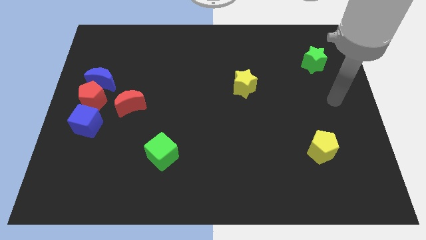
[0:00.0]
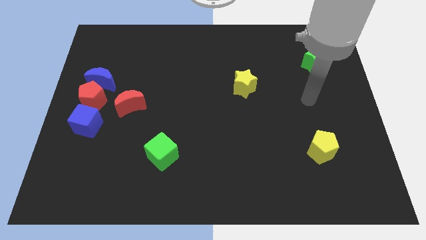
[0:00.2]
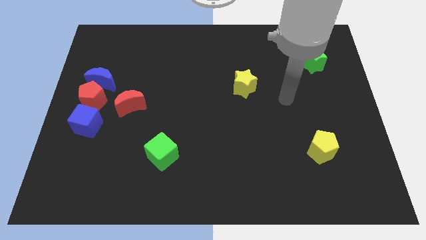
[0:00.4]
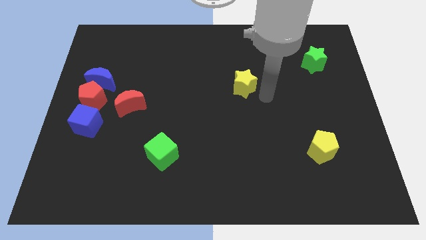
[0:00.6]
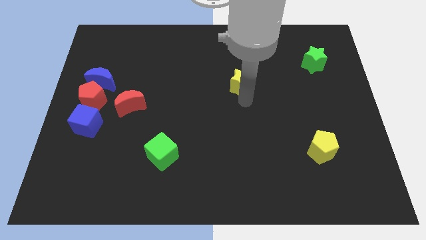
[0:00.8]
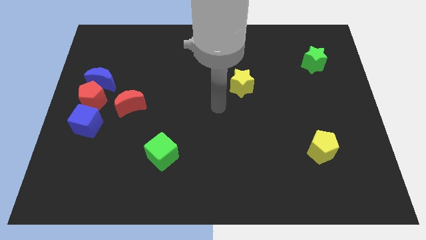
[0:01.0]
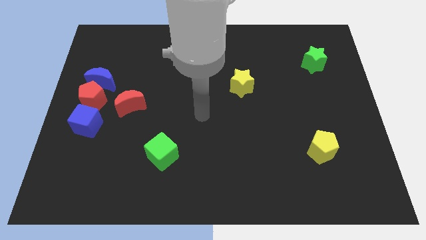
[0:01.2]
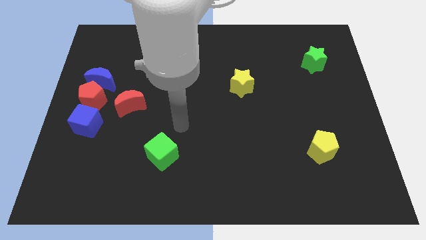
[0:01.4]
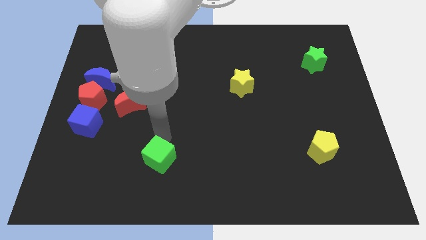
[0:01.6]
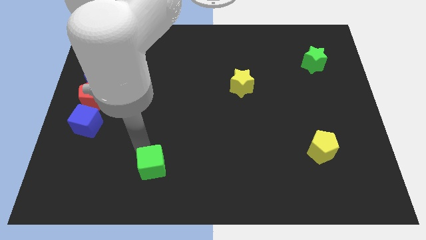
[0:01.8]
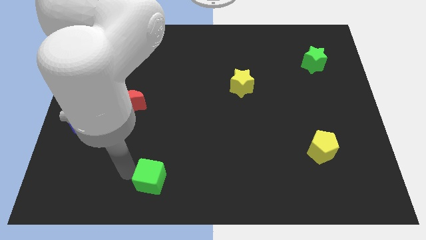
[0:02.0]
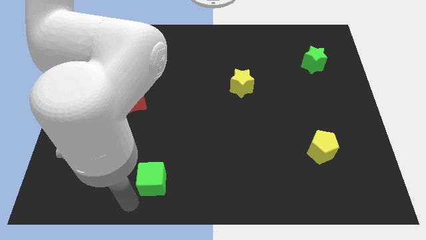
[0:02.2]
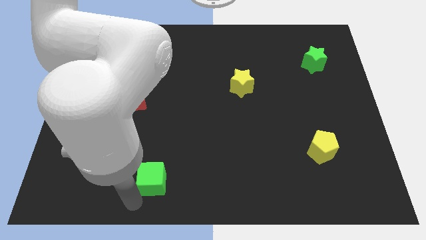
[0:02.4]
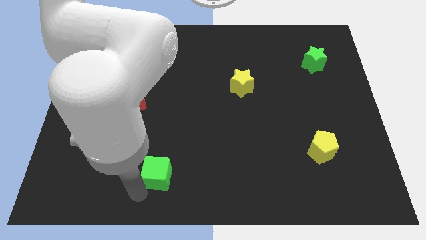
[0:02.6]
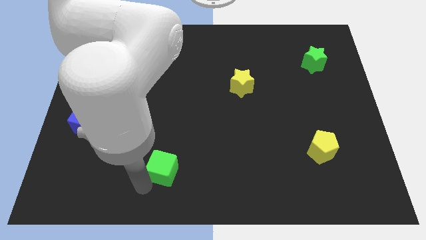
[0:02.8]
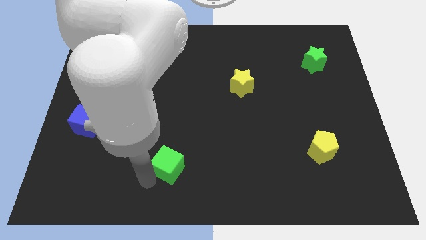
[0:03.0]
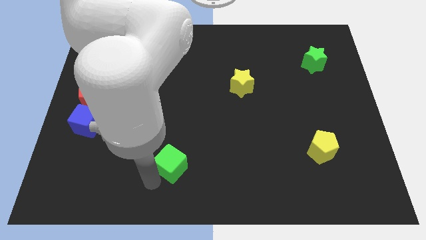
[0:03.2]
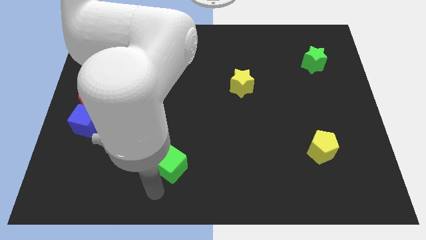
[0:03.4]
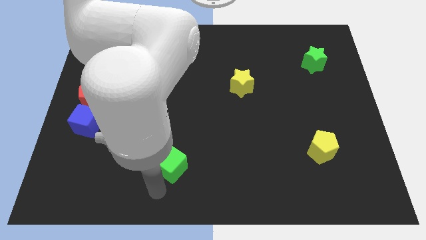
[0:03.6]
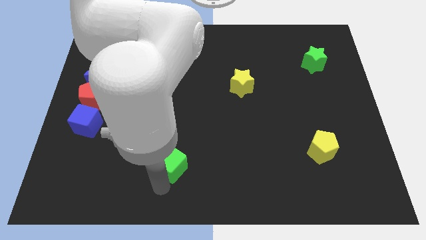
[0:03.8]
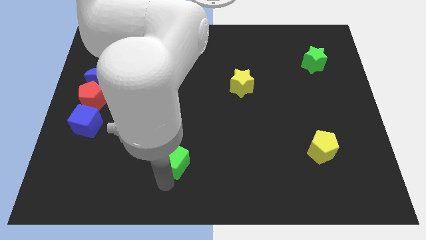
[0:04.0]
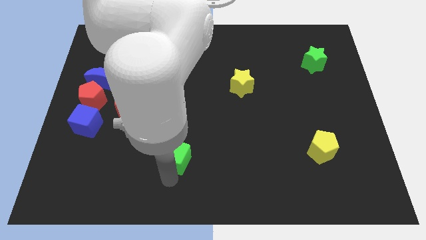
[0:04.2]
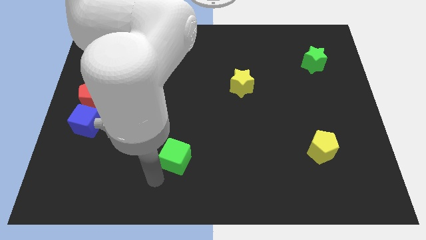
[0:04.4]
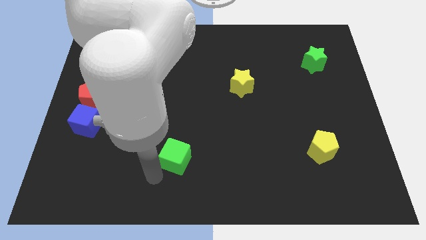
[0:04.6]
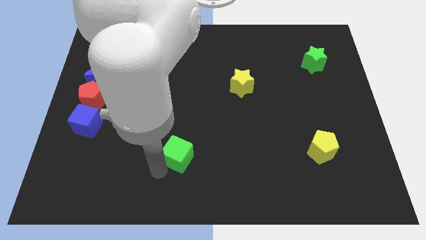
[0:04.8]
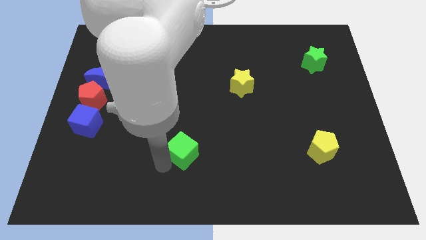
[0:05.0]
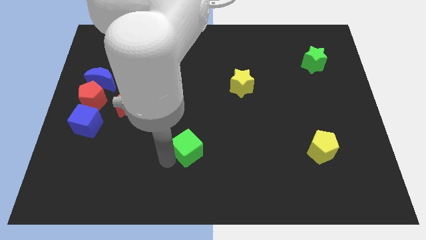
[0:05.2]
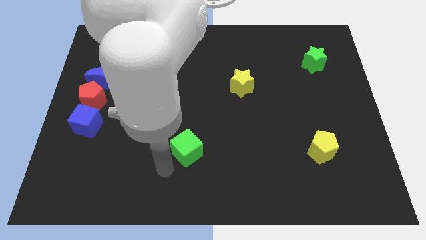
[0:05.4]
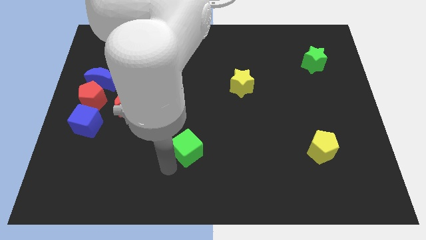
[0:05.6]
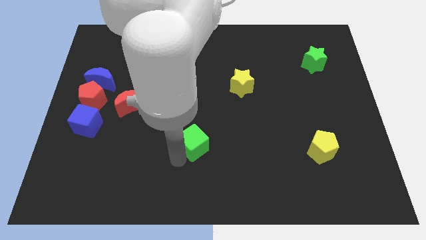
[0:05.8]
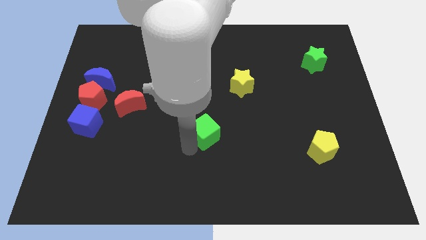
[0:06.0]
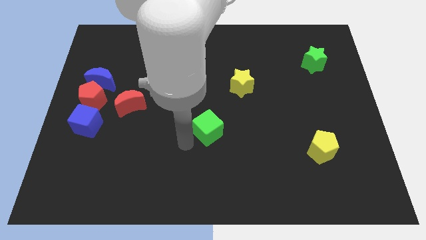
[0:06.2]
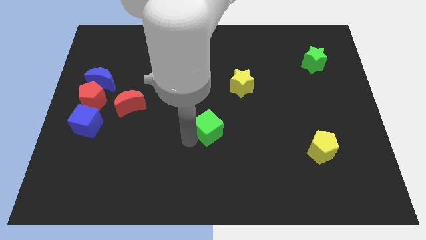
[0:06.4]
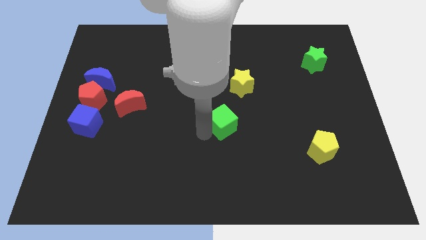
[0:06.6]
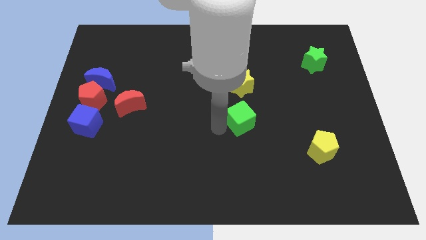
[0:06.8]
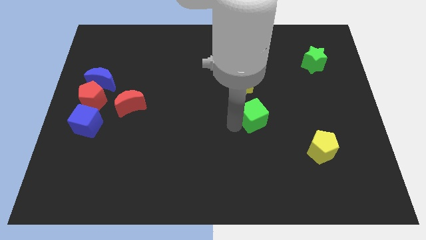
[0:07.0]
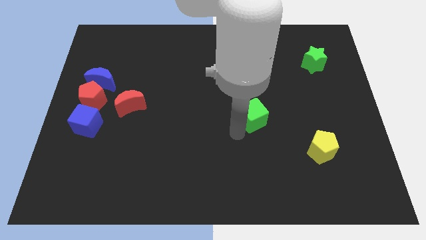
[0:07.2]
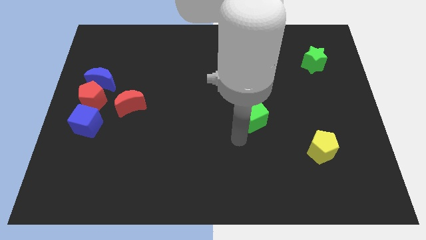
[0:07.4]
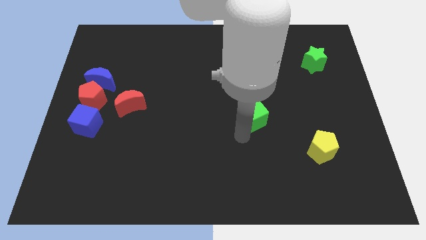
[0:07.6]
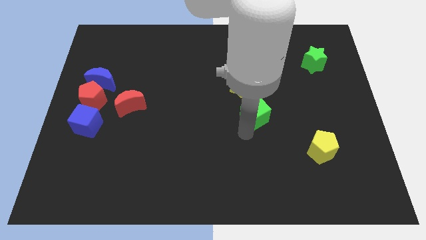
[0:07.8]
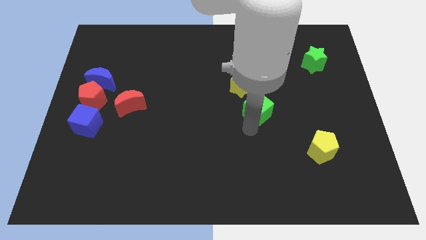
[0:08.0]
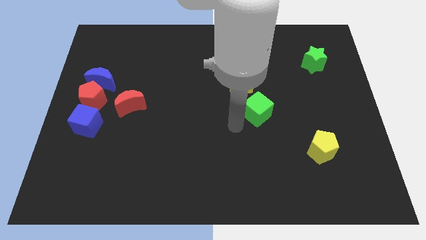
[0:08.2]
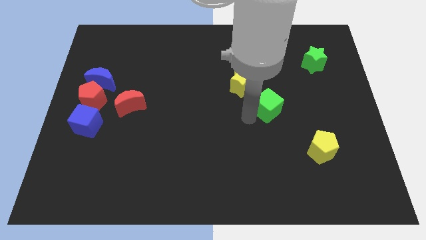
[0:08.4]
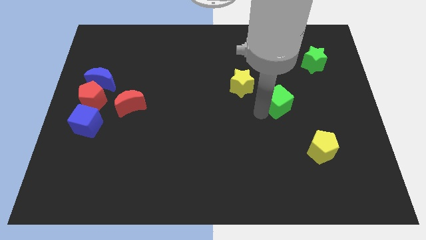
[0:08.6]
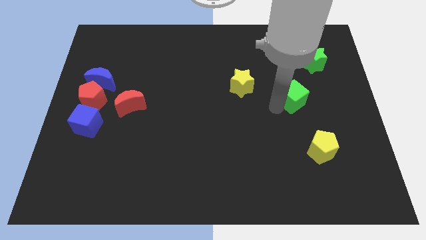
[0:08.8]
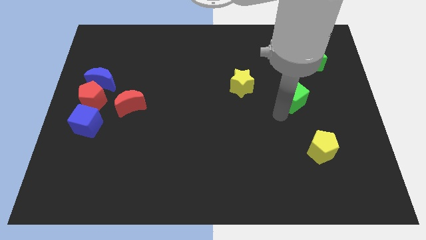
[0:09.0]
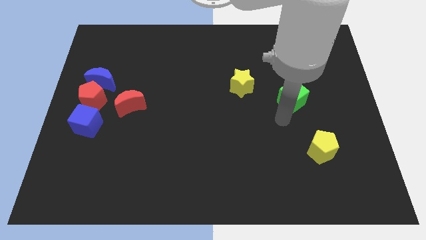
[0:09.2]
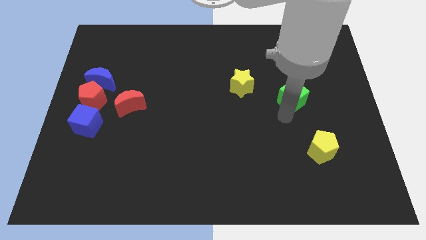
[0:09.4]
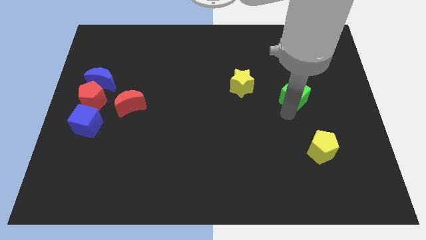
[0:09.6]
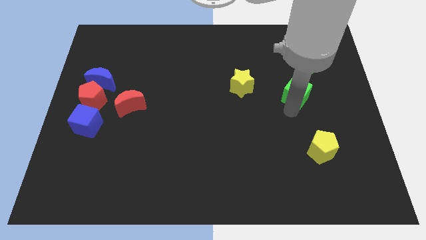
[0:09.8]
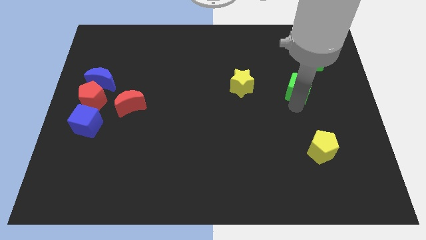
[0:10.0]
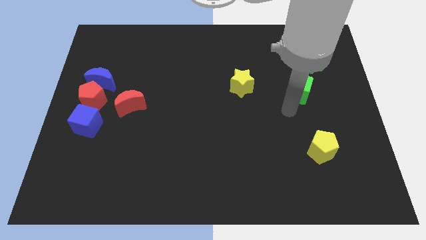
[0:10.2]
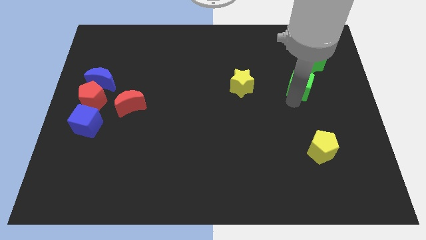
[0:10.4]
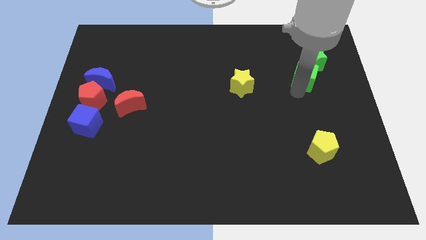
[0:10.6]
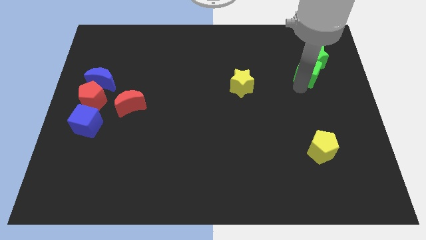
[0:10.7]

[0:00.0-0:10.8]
put the green cube close to the green star

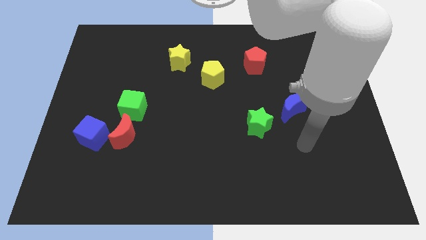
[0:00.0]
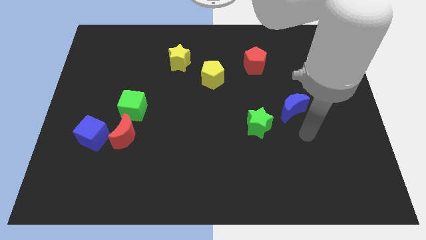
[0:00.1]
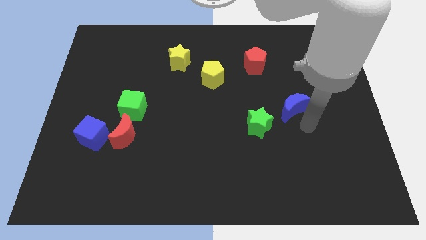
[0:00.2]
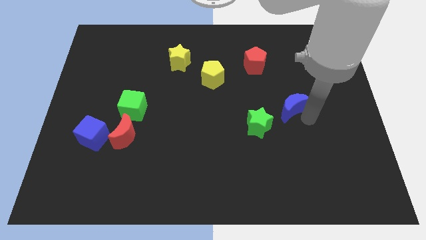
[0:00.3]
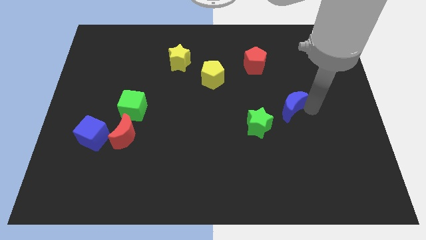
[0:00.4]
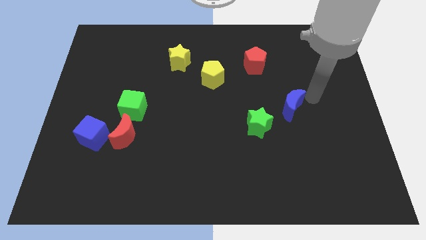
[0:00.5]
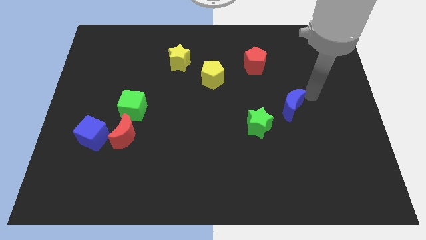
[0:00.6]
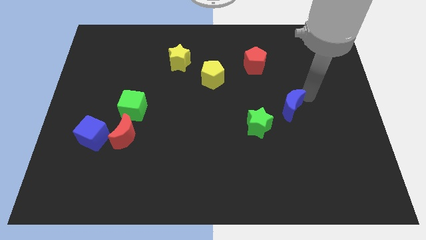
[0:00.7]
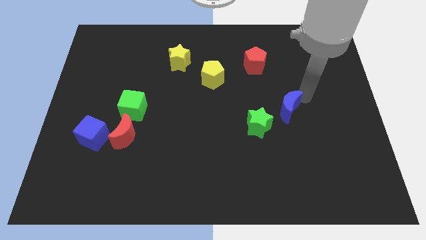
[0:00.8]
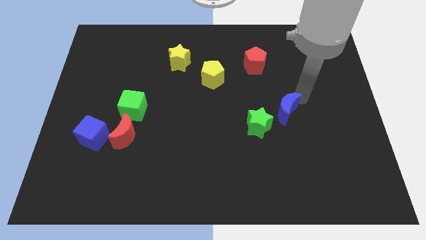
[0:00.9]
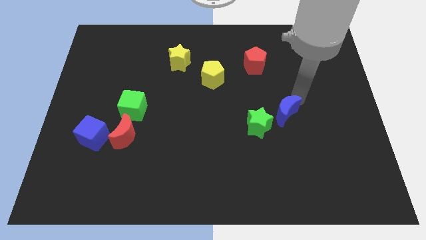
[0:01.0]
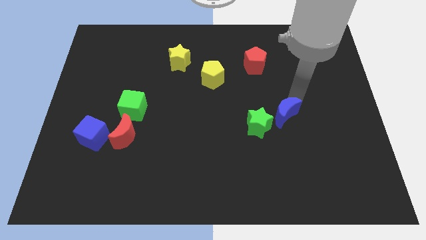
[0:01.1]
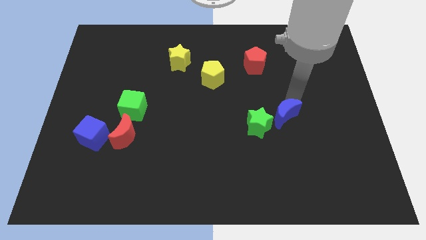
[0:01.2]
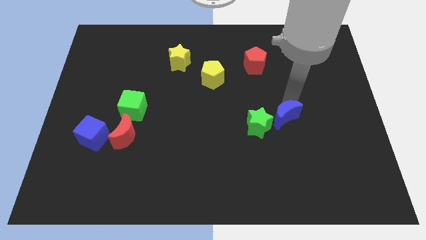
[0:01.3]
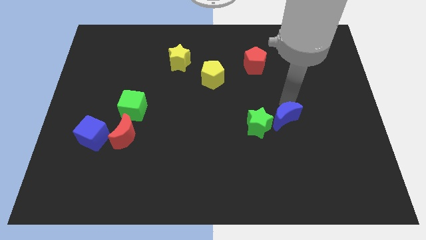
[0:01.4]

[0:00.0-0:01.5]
move the blue moon towards the green star

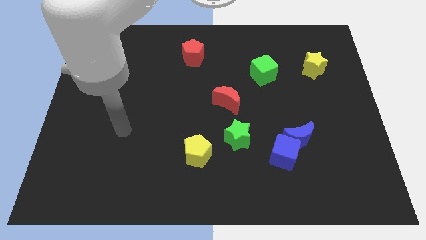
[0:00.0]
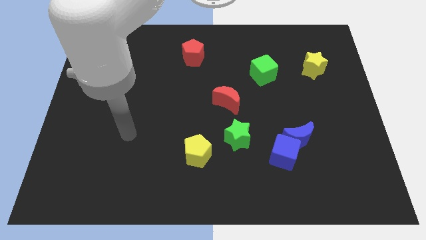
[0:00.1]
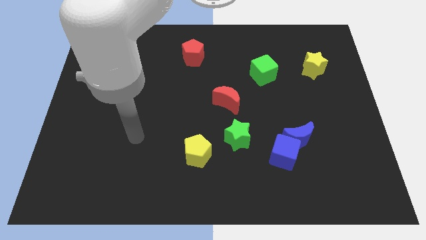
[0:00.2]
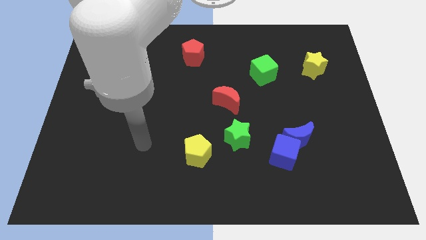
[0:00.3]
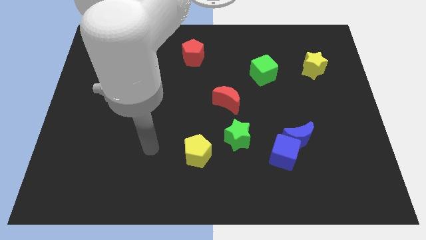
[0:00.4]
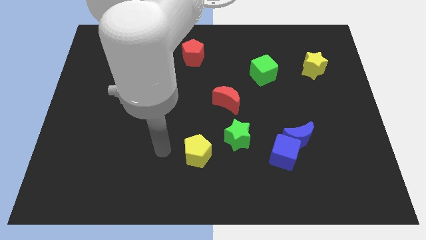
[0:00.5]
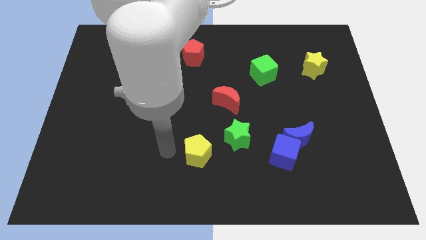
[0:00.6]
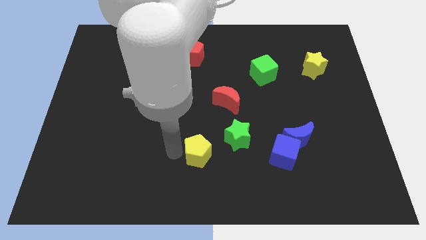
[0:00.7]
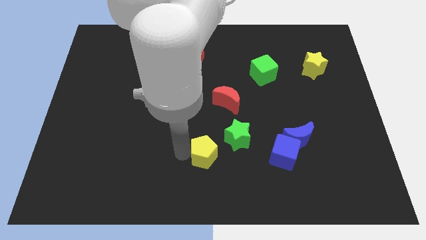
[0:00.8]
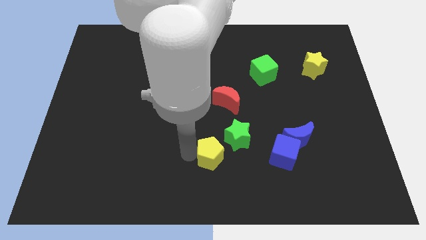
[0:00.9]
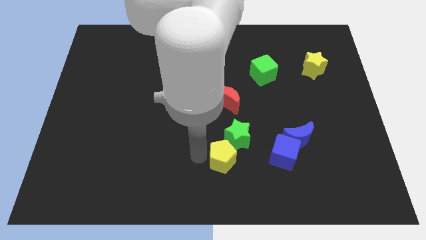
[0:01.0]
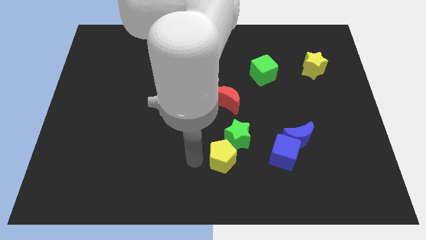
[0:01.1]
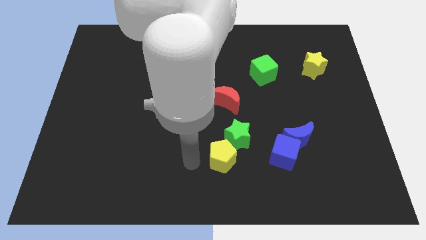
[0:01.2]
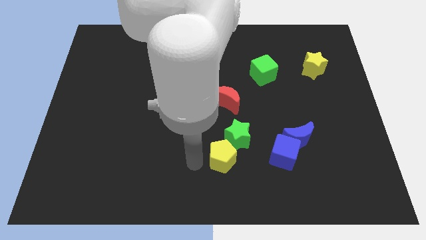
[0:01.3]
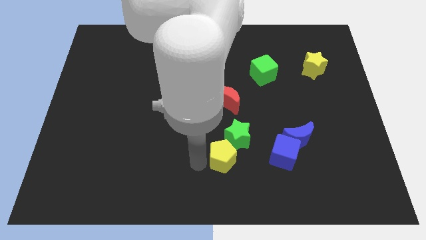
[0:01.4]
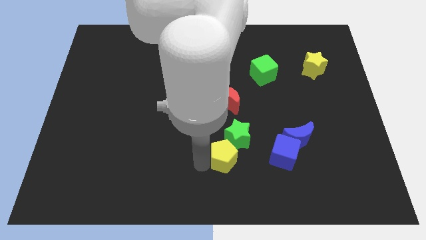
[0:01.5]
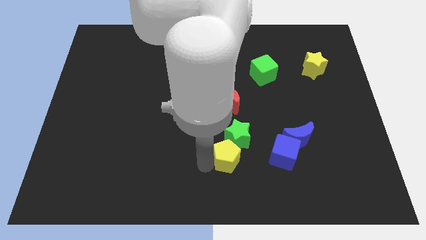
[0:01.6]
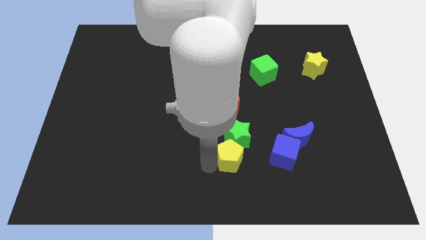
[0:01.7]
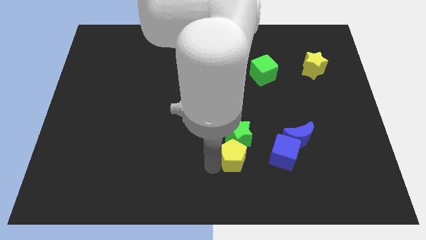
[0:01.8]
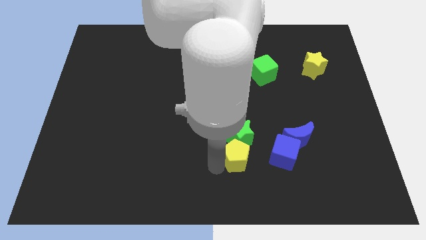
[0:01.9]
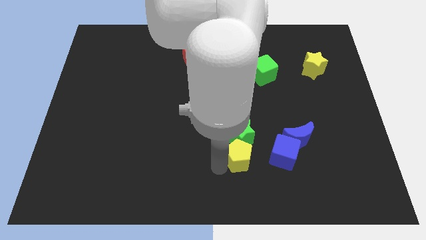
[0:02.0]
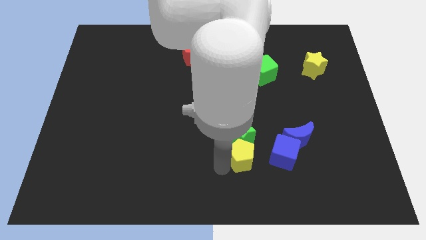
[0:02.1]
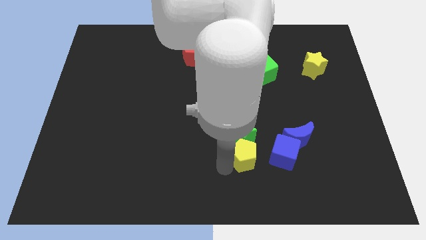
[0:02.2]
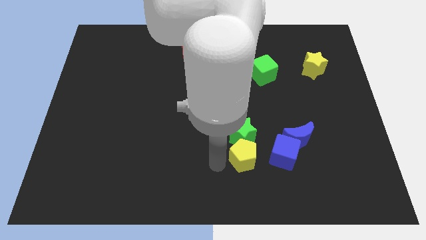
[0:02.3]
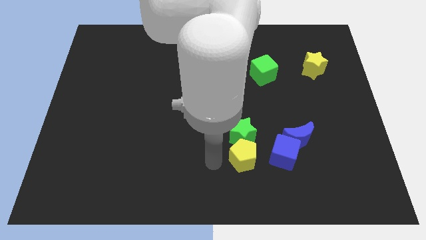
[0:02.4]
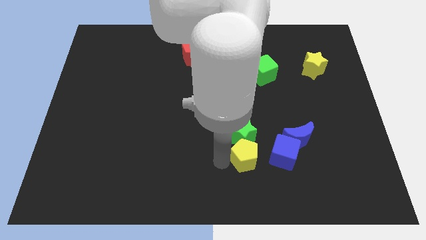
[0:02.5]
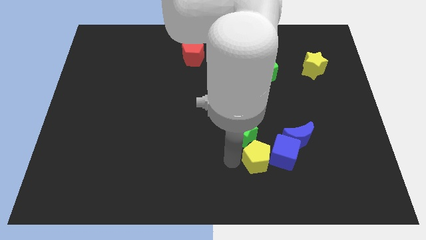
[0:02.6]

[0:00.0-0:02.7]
put the yellow pentagon towards the blue cube
